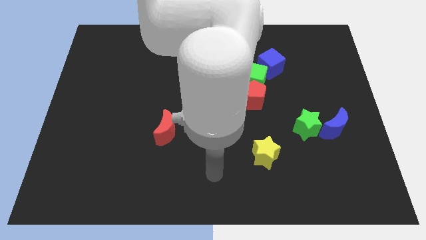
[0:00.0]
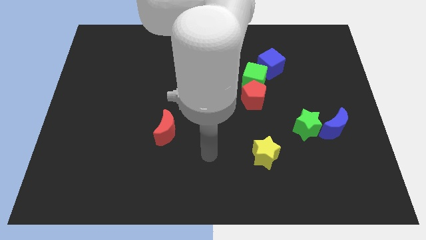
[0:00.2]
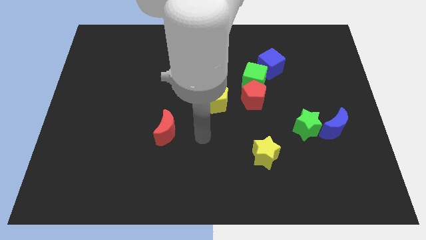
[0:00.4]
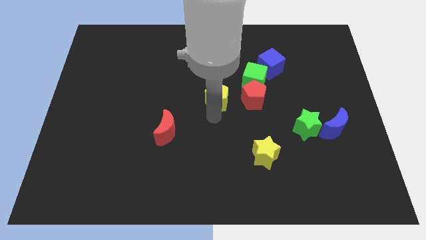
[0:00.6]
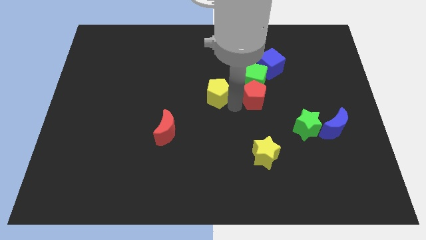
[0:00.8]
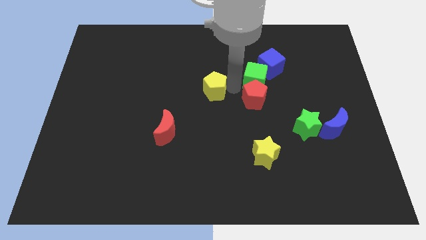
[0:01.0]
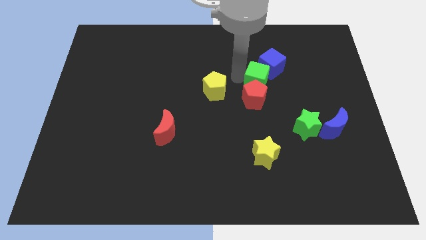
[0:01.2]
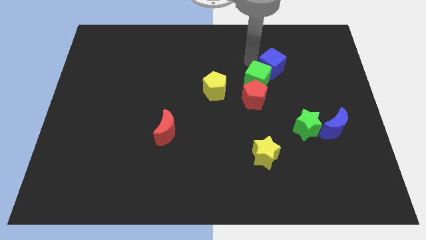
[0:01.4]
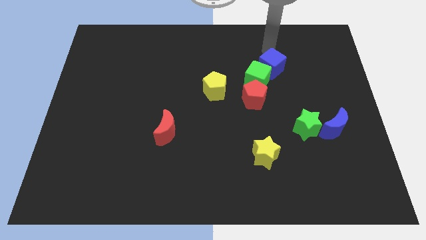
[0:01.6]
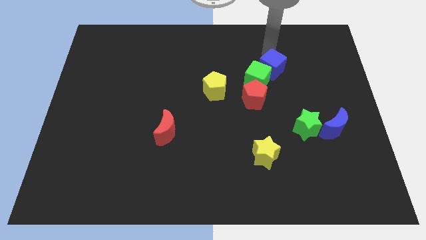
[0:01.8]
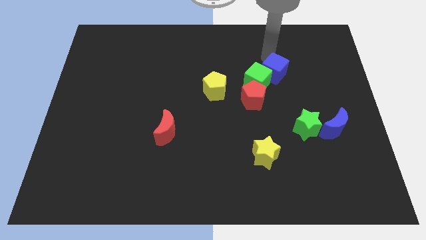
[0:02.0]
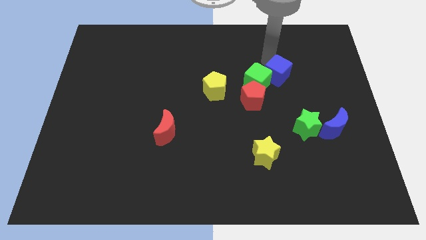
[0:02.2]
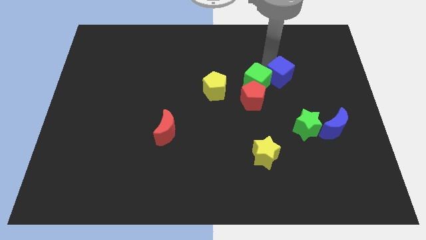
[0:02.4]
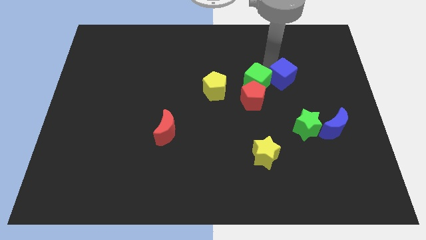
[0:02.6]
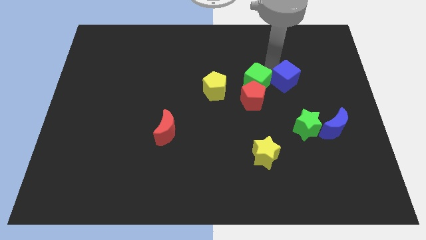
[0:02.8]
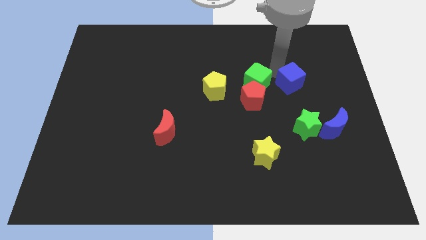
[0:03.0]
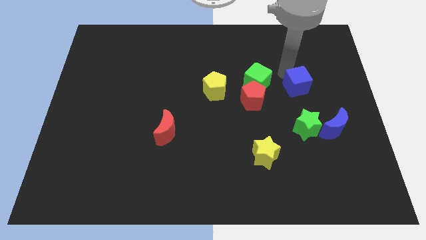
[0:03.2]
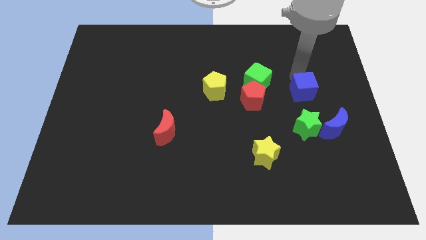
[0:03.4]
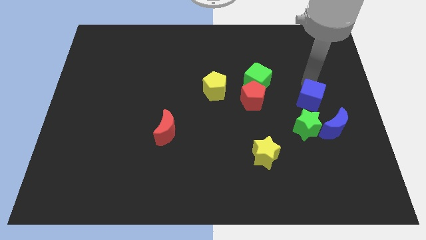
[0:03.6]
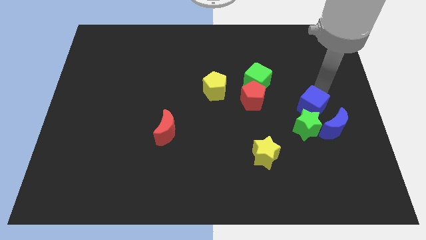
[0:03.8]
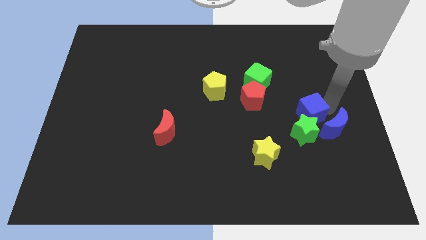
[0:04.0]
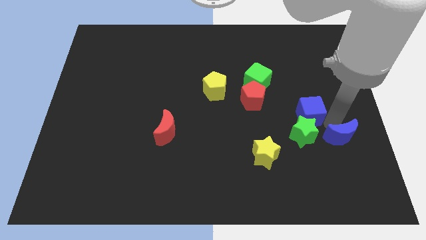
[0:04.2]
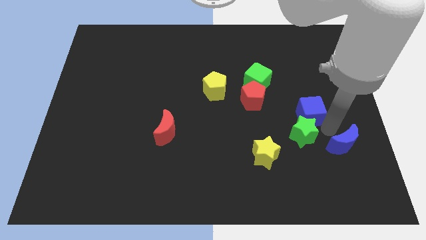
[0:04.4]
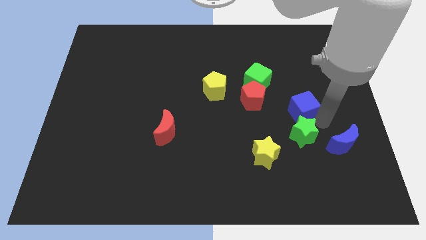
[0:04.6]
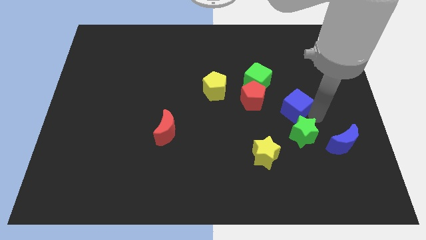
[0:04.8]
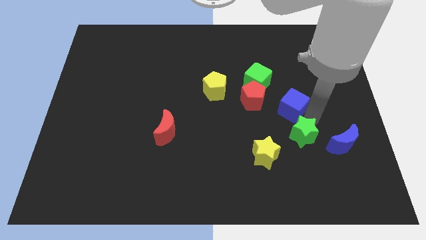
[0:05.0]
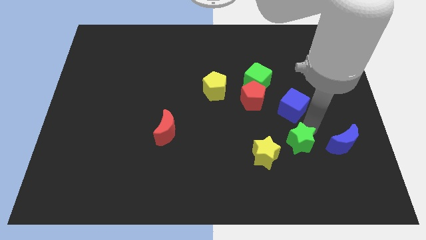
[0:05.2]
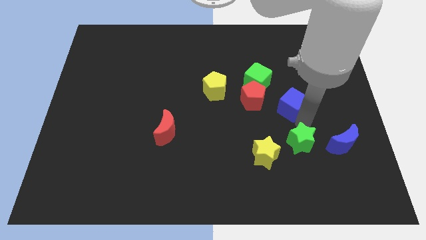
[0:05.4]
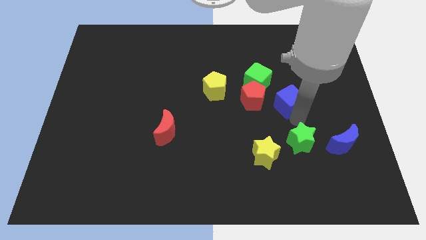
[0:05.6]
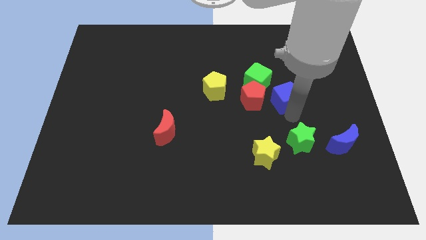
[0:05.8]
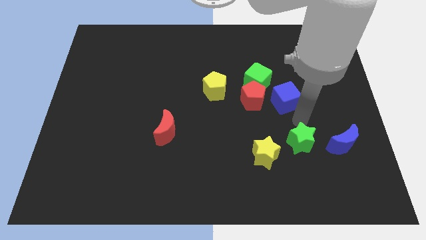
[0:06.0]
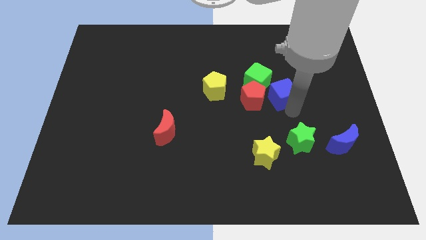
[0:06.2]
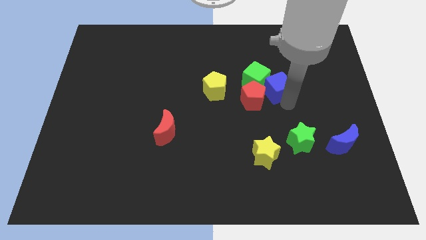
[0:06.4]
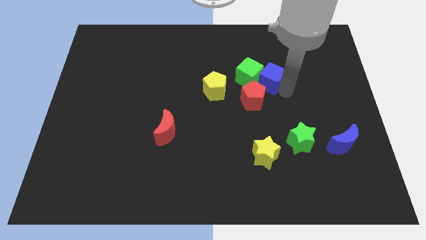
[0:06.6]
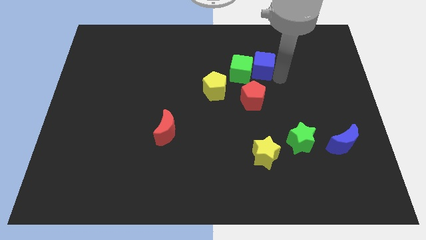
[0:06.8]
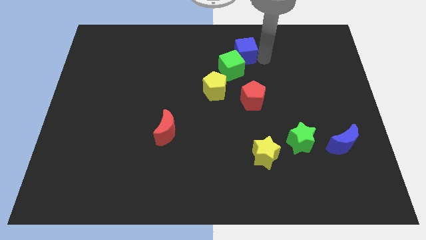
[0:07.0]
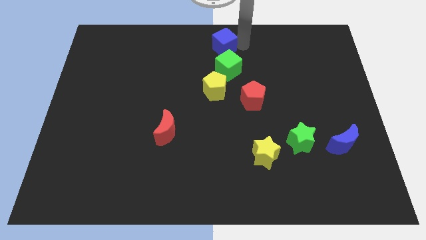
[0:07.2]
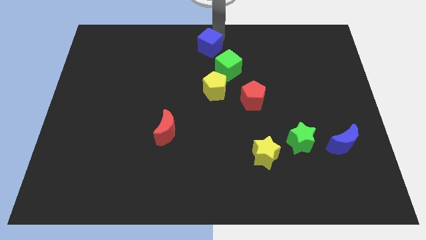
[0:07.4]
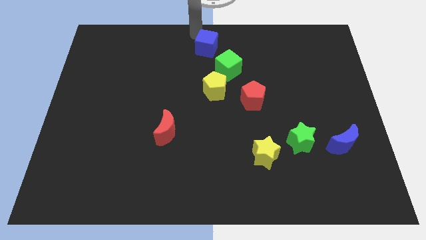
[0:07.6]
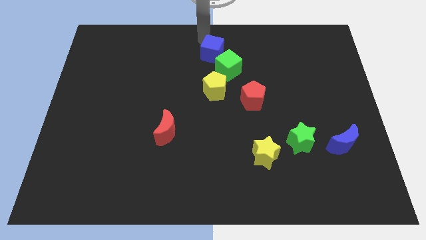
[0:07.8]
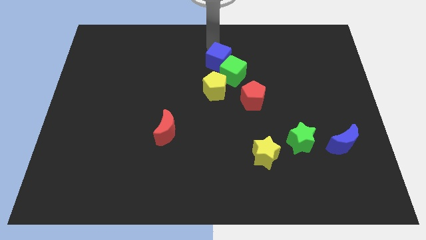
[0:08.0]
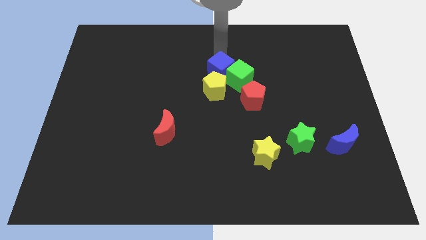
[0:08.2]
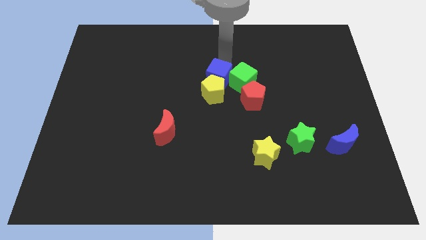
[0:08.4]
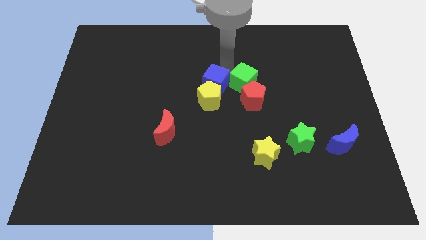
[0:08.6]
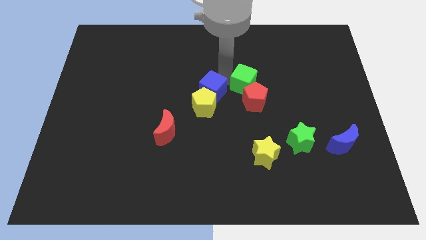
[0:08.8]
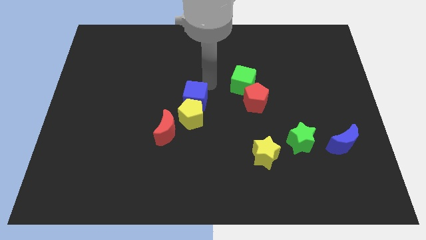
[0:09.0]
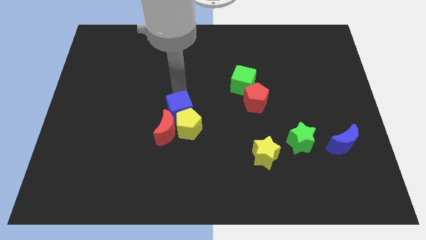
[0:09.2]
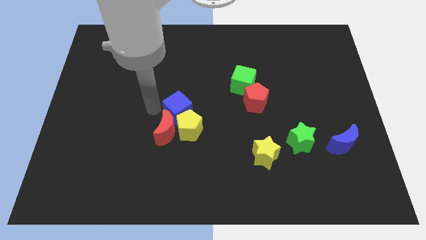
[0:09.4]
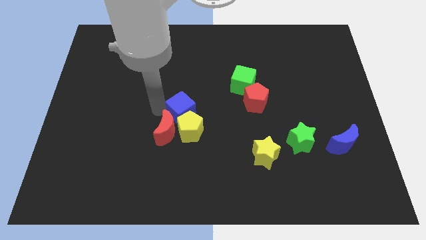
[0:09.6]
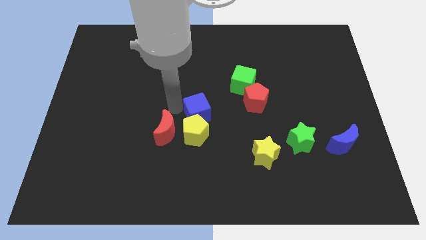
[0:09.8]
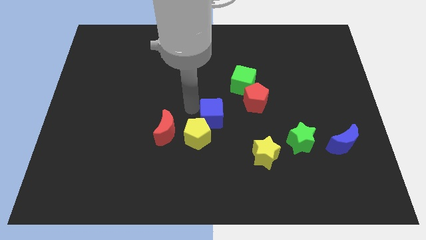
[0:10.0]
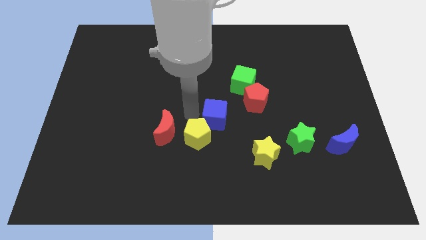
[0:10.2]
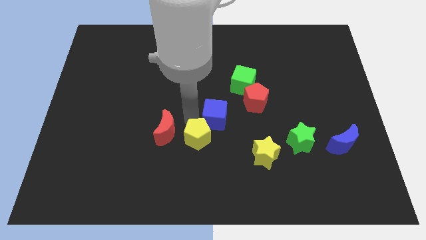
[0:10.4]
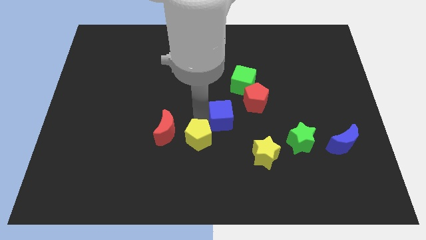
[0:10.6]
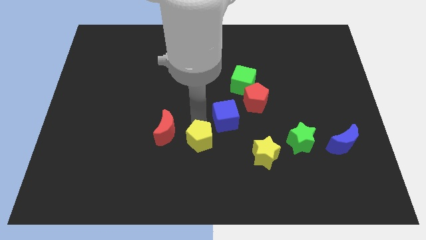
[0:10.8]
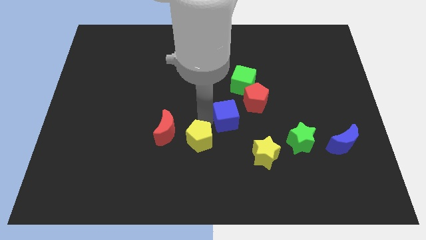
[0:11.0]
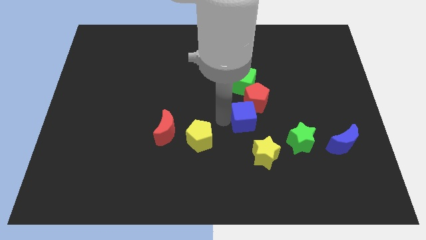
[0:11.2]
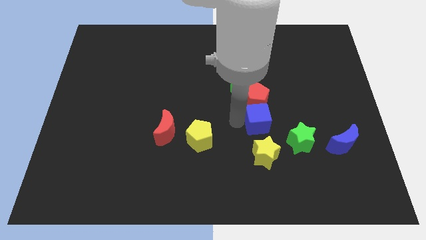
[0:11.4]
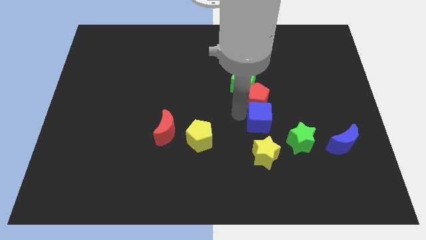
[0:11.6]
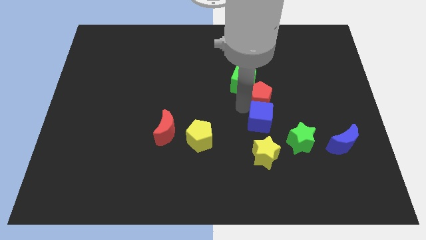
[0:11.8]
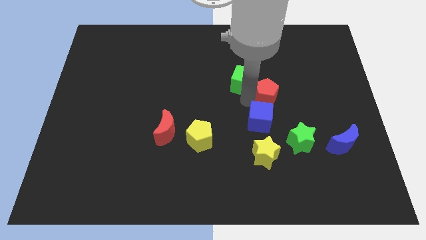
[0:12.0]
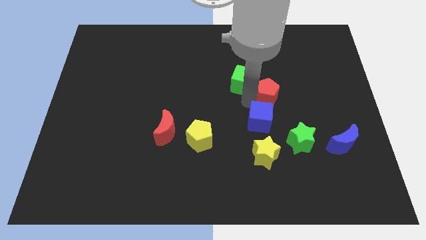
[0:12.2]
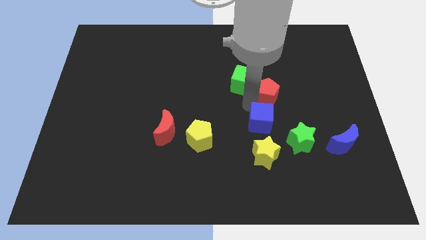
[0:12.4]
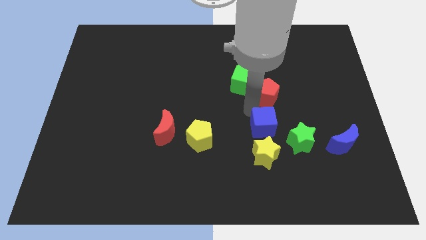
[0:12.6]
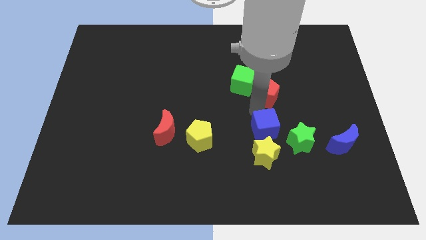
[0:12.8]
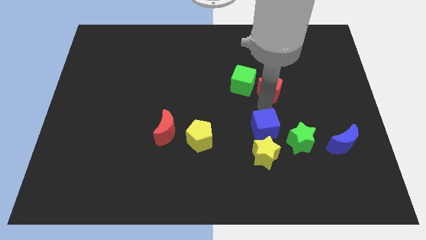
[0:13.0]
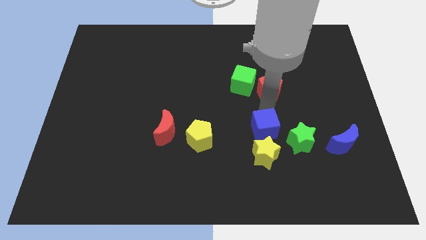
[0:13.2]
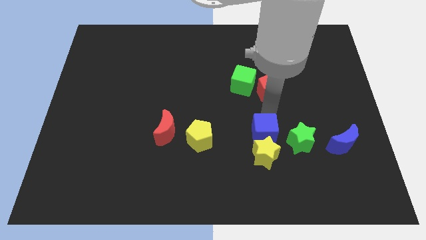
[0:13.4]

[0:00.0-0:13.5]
slide the blue cube next to the yellow star
